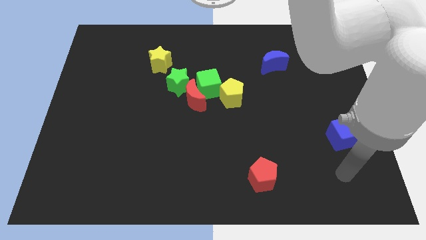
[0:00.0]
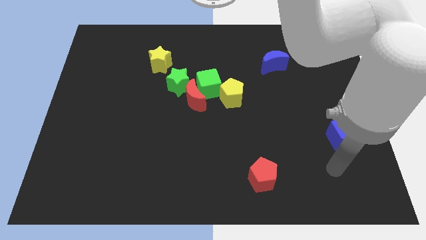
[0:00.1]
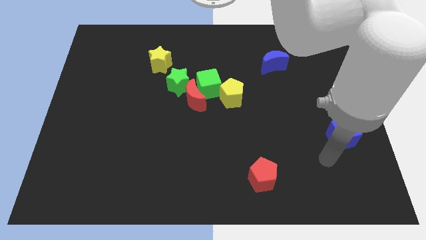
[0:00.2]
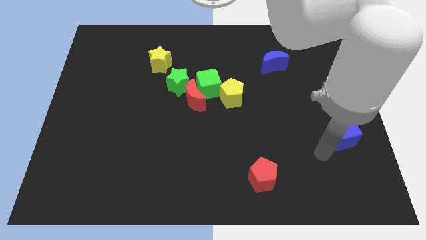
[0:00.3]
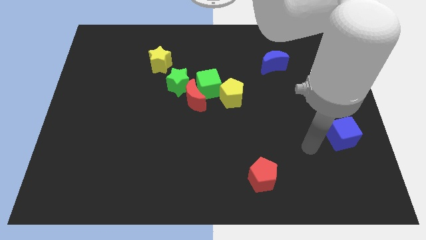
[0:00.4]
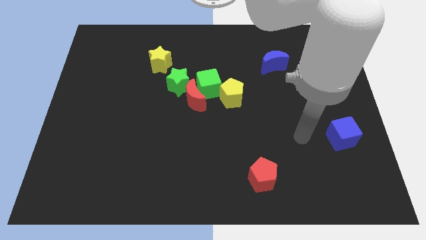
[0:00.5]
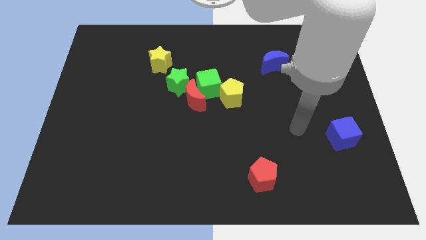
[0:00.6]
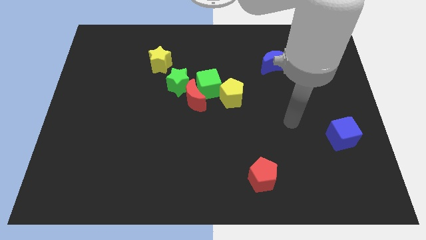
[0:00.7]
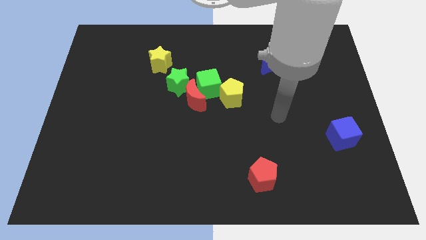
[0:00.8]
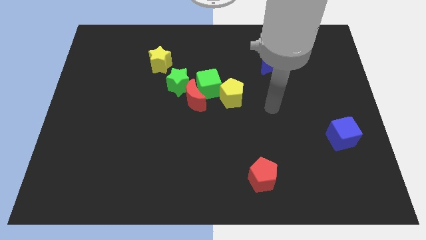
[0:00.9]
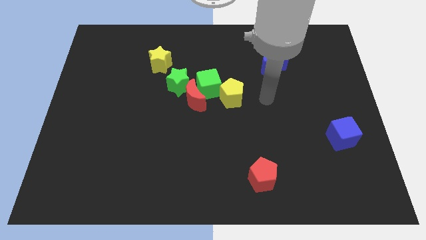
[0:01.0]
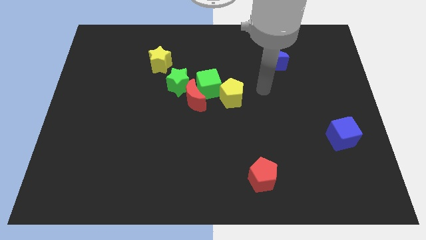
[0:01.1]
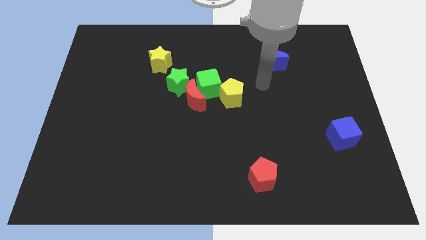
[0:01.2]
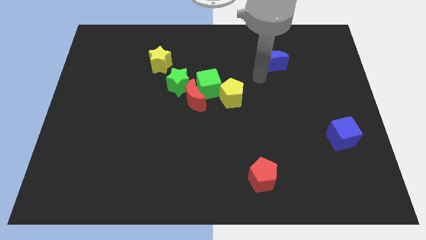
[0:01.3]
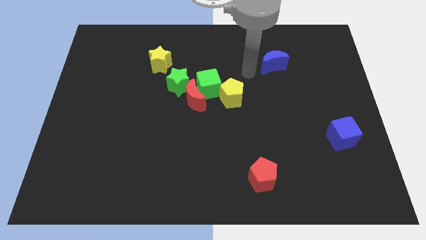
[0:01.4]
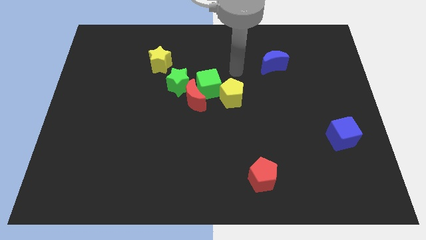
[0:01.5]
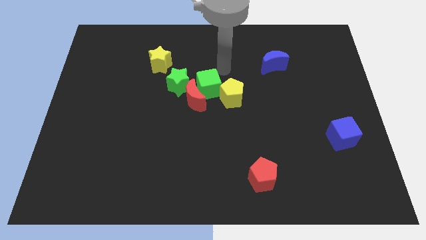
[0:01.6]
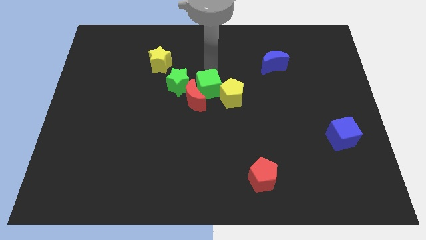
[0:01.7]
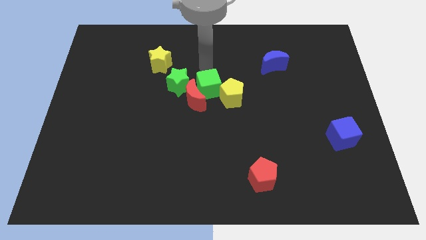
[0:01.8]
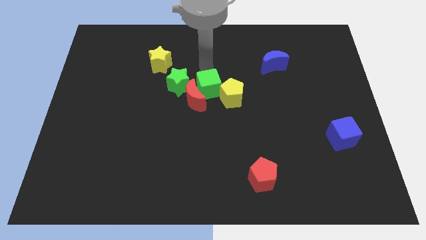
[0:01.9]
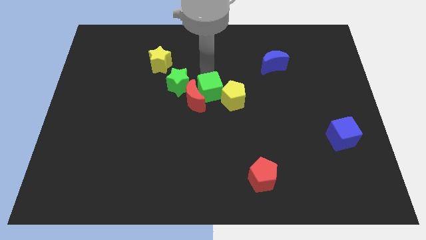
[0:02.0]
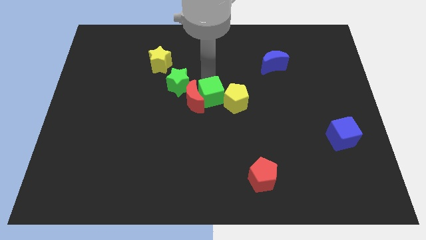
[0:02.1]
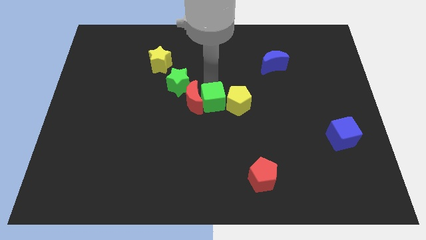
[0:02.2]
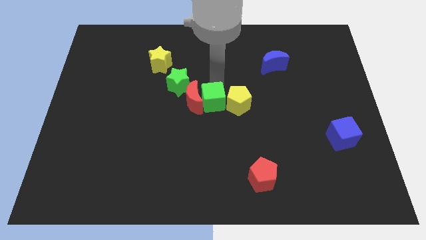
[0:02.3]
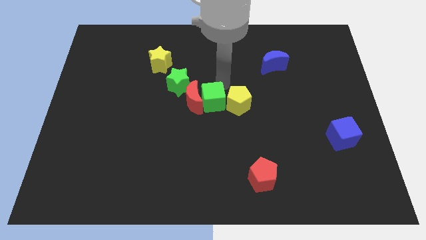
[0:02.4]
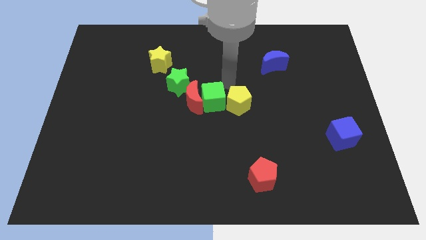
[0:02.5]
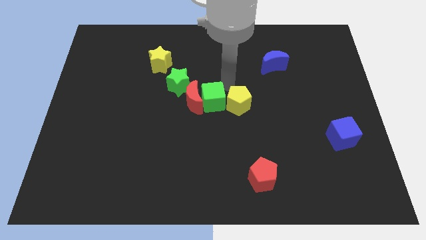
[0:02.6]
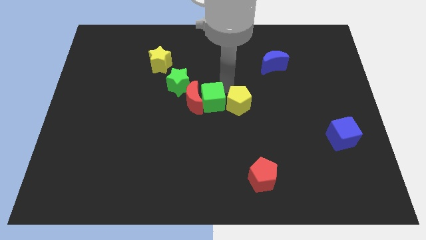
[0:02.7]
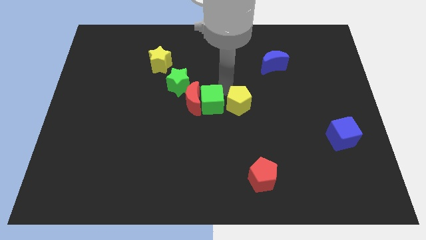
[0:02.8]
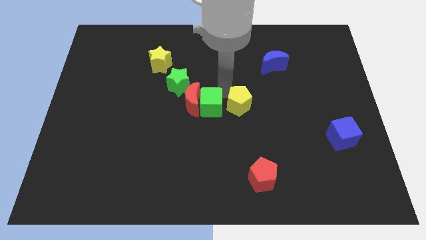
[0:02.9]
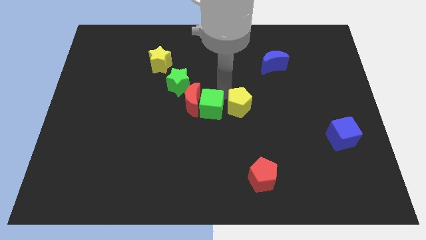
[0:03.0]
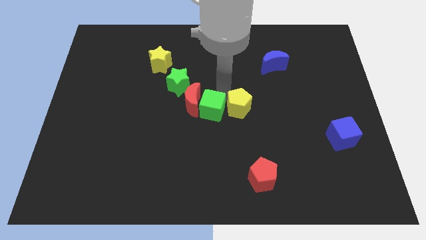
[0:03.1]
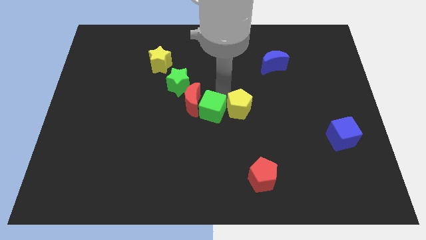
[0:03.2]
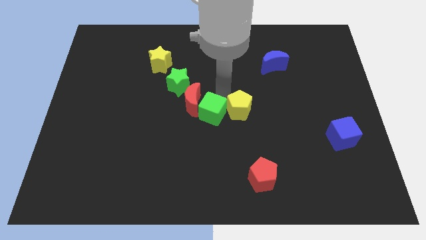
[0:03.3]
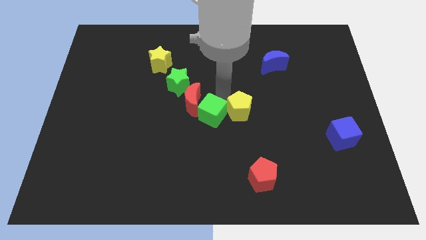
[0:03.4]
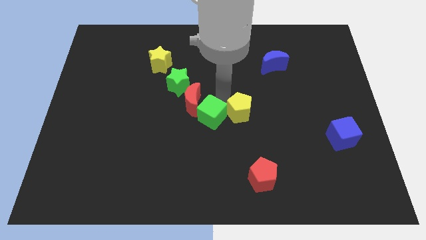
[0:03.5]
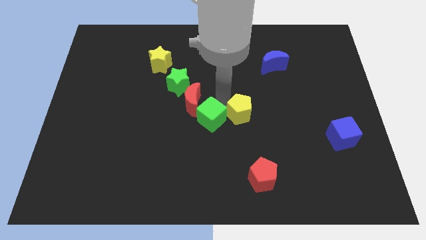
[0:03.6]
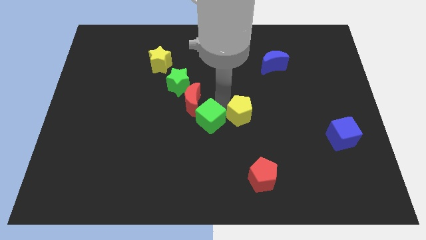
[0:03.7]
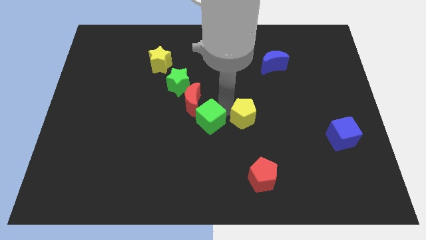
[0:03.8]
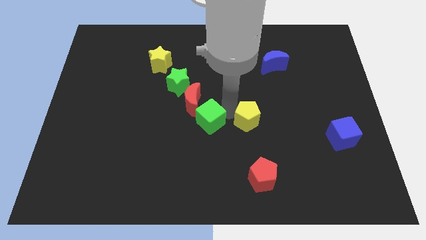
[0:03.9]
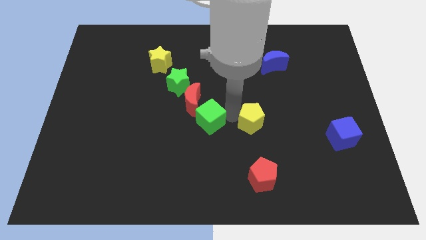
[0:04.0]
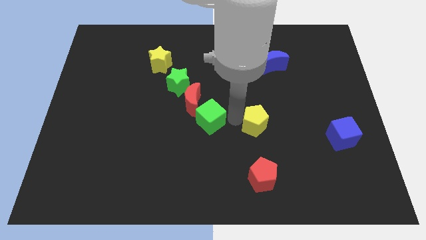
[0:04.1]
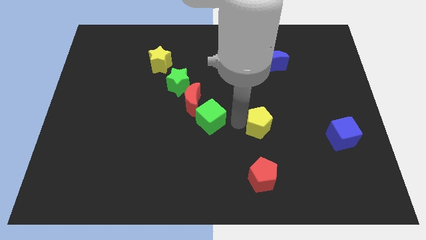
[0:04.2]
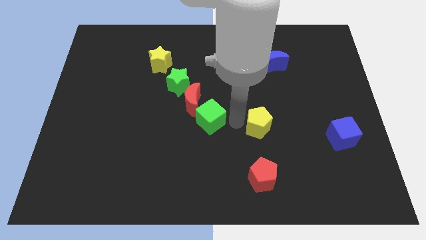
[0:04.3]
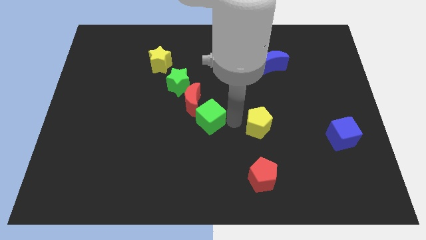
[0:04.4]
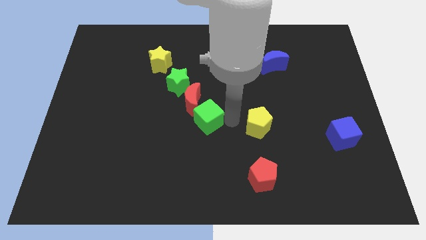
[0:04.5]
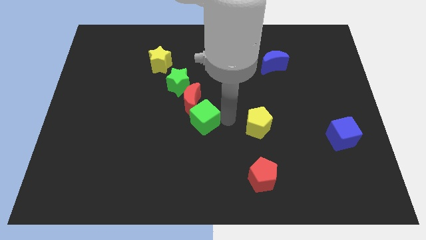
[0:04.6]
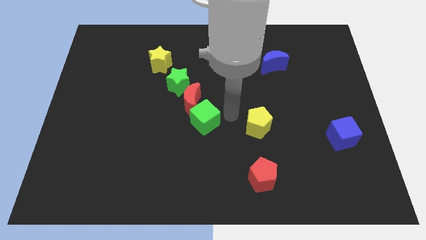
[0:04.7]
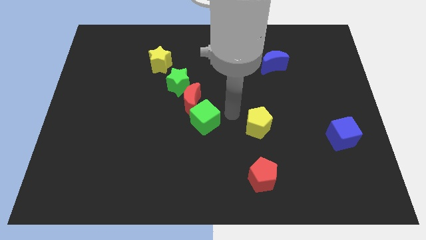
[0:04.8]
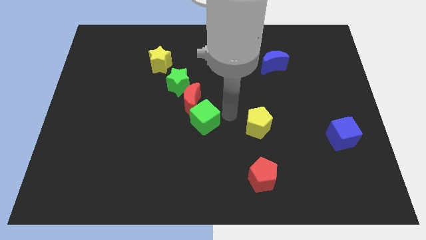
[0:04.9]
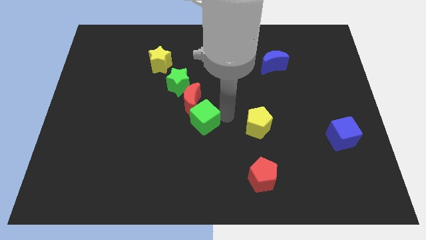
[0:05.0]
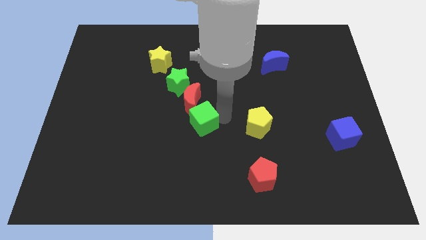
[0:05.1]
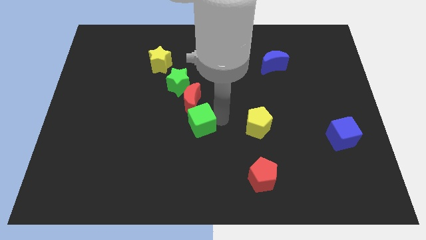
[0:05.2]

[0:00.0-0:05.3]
slide the green cube downwards and then left a little bit

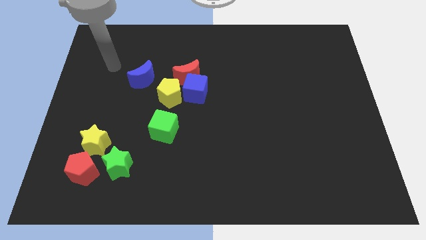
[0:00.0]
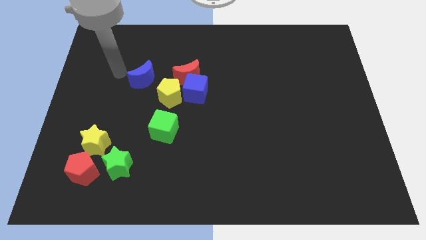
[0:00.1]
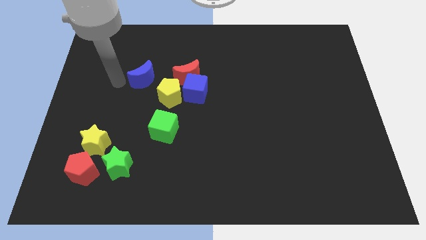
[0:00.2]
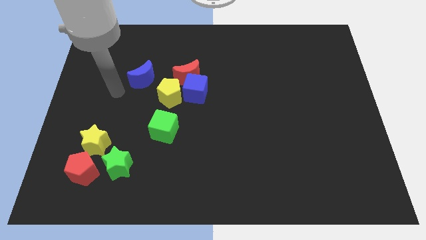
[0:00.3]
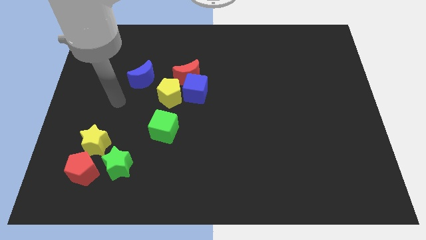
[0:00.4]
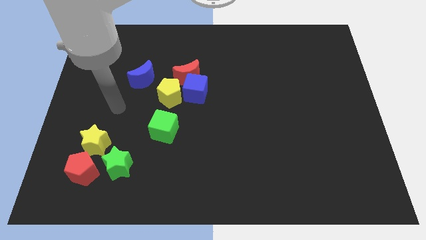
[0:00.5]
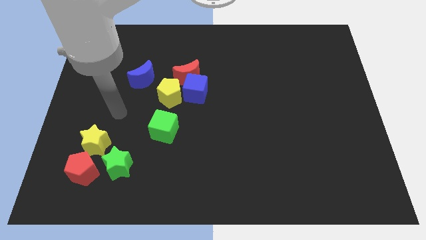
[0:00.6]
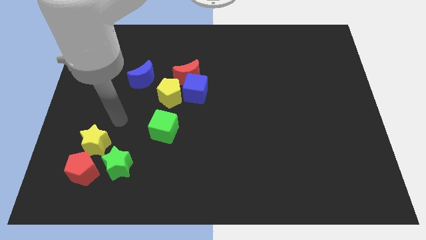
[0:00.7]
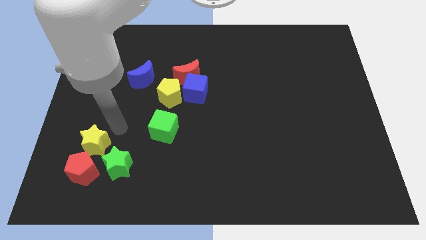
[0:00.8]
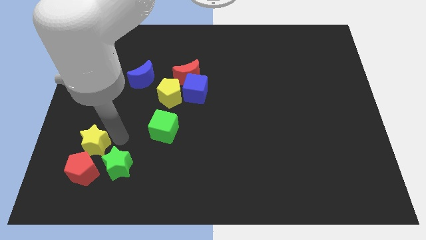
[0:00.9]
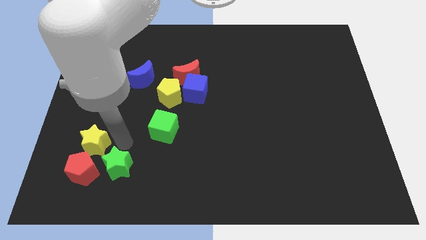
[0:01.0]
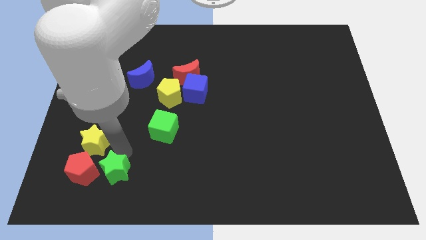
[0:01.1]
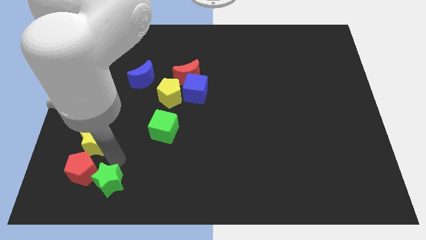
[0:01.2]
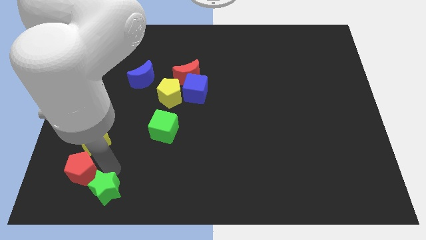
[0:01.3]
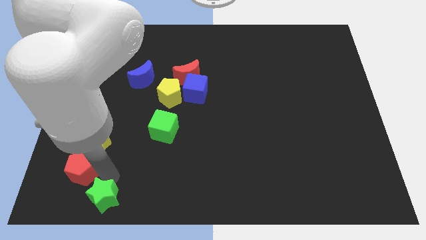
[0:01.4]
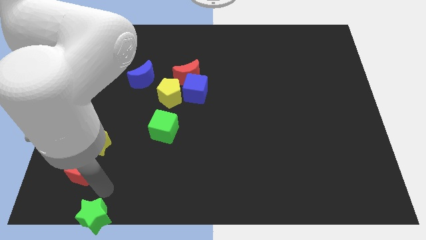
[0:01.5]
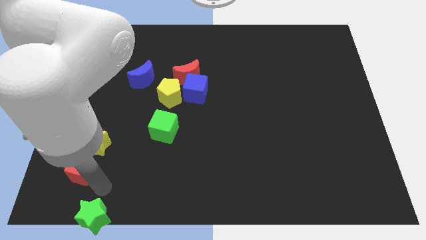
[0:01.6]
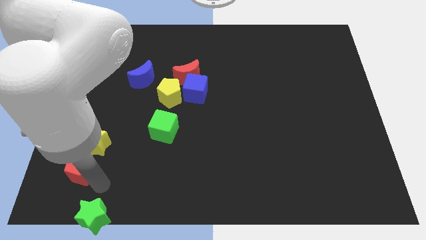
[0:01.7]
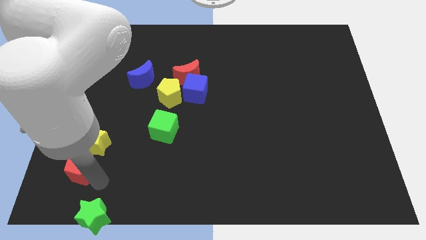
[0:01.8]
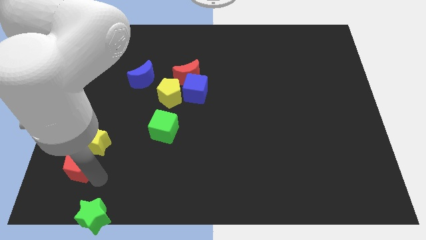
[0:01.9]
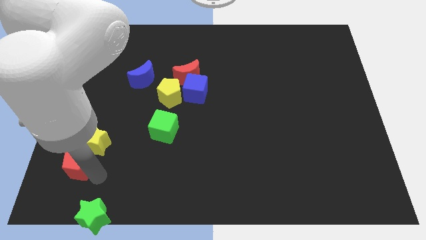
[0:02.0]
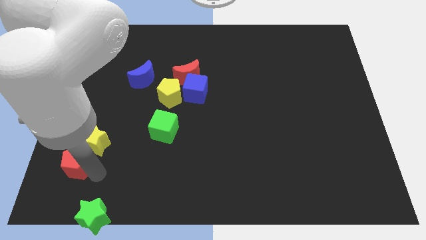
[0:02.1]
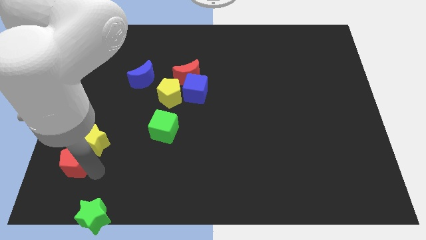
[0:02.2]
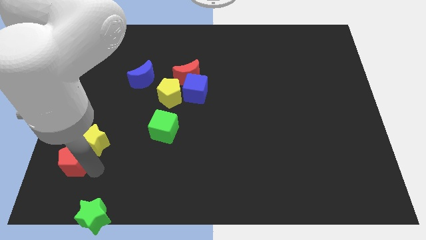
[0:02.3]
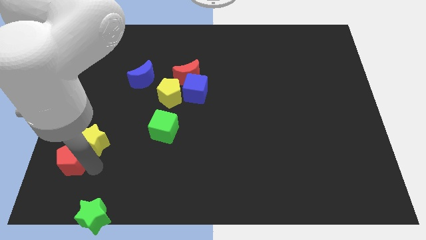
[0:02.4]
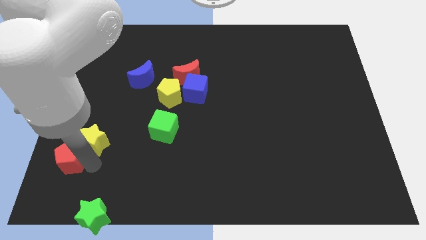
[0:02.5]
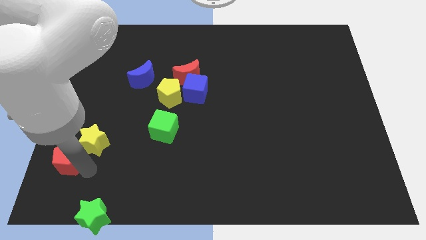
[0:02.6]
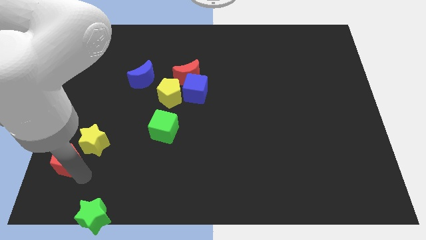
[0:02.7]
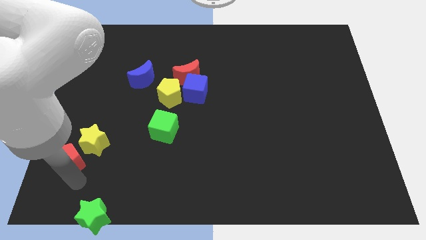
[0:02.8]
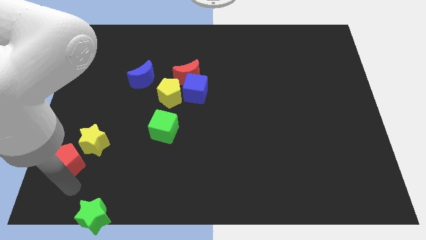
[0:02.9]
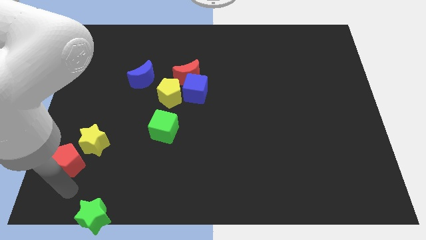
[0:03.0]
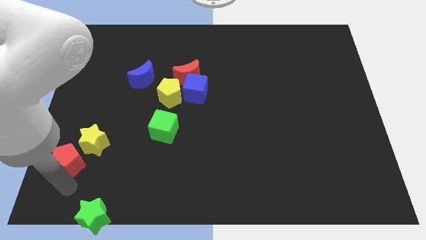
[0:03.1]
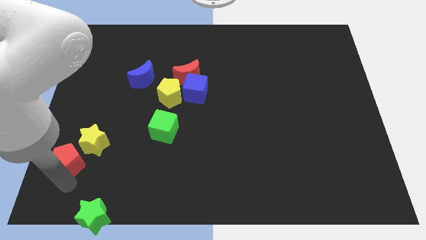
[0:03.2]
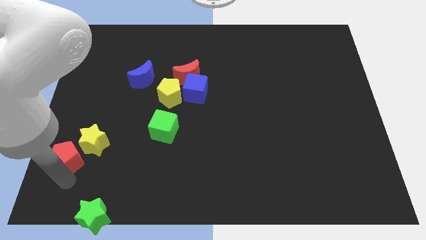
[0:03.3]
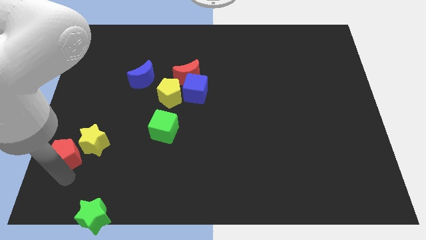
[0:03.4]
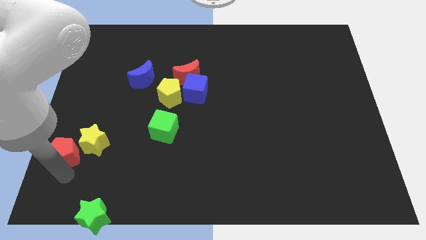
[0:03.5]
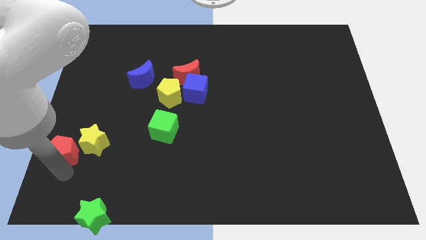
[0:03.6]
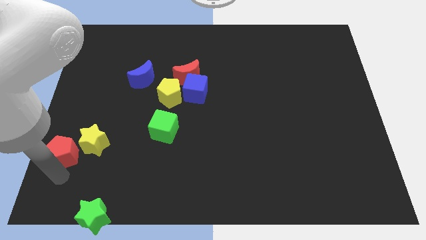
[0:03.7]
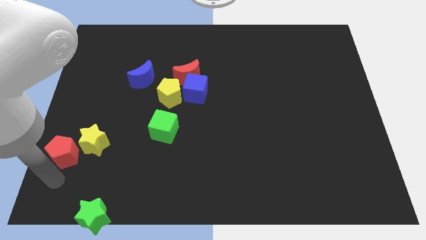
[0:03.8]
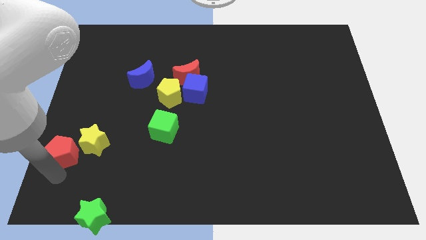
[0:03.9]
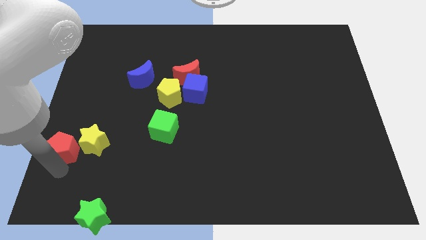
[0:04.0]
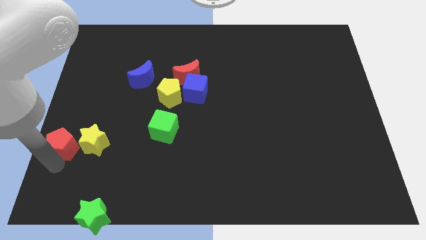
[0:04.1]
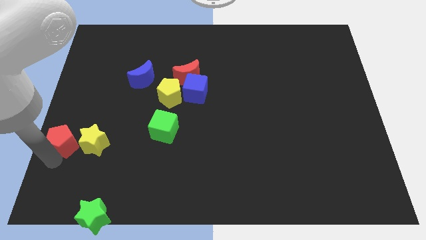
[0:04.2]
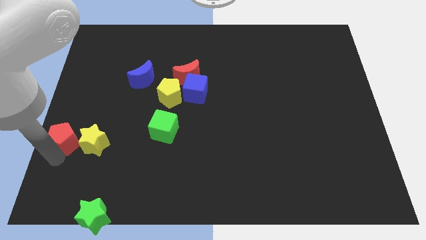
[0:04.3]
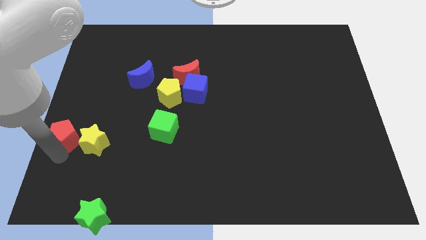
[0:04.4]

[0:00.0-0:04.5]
slide the red pentagon up slightly
